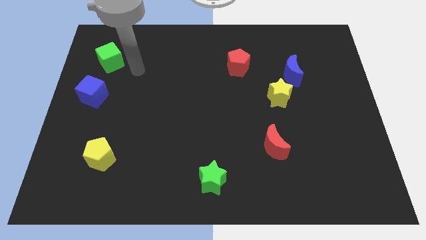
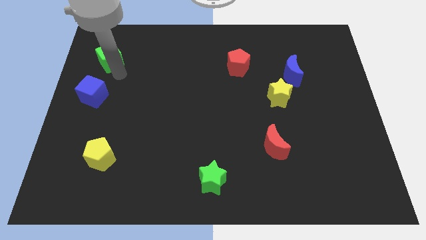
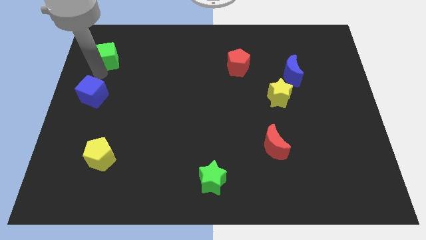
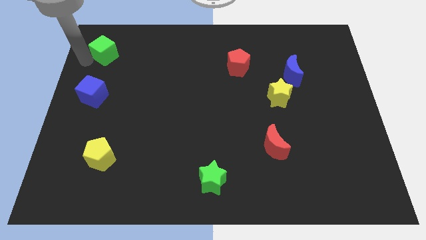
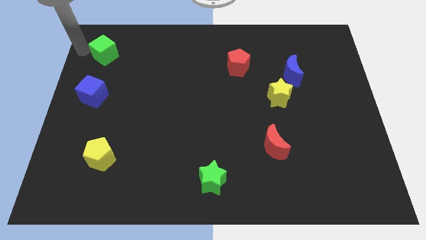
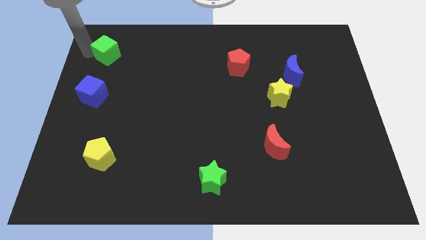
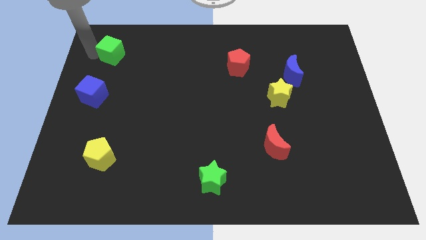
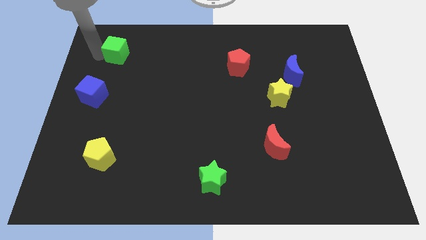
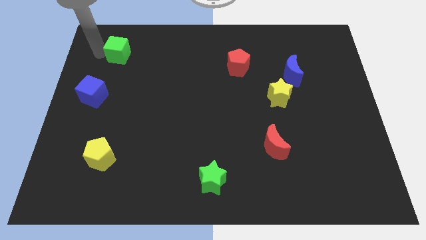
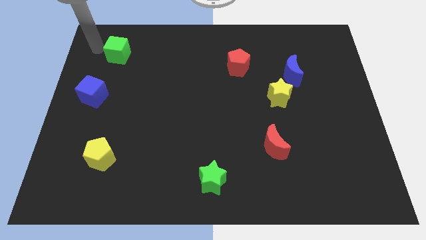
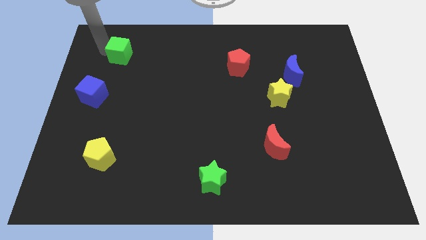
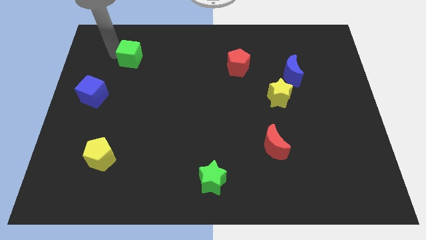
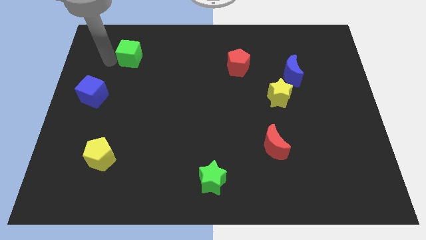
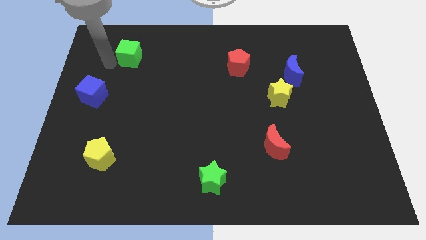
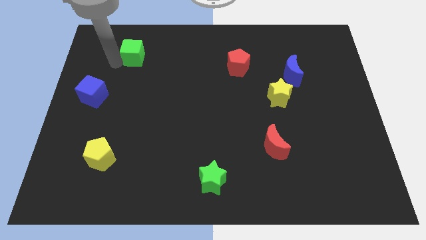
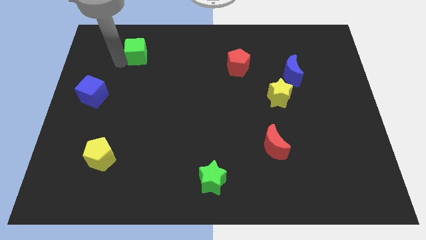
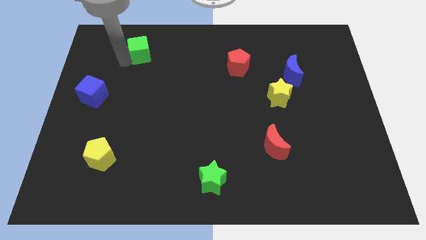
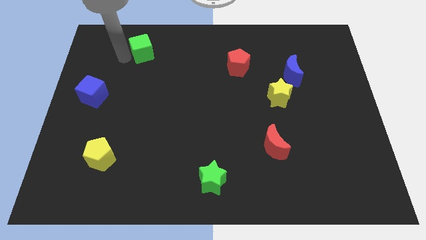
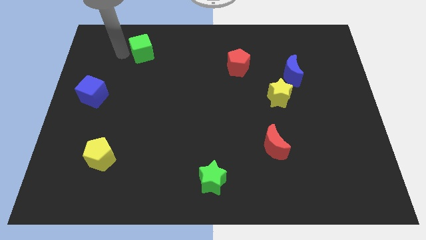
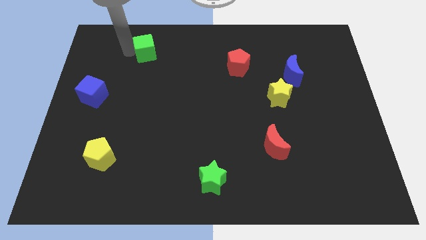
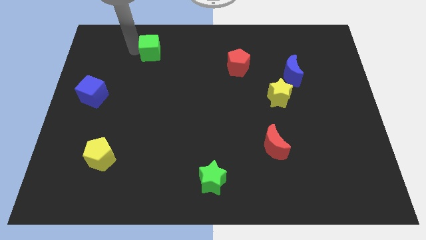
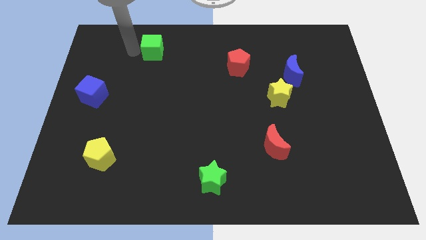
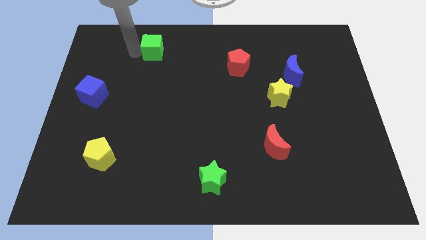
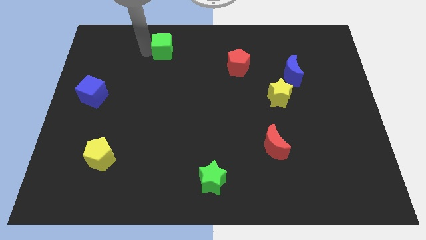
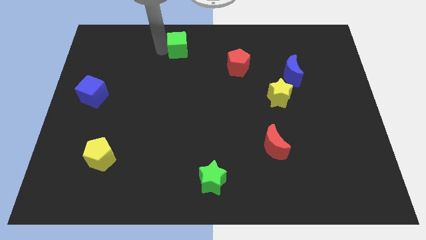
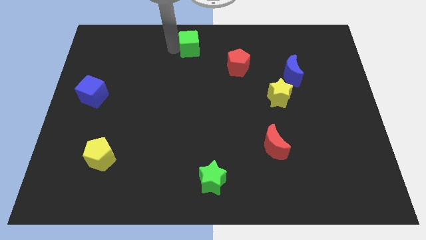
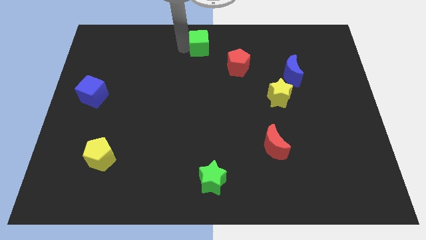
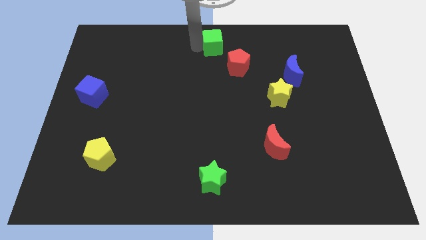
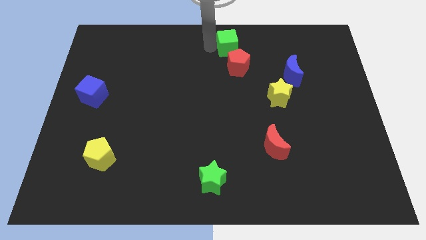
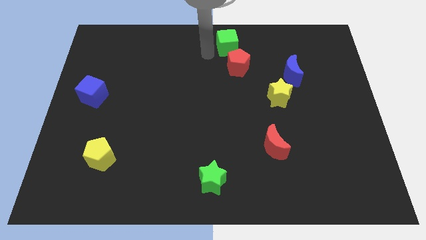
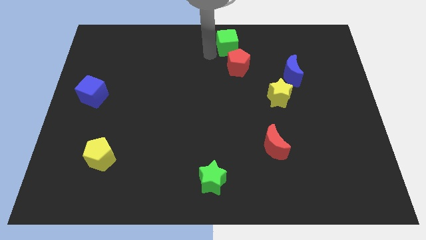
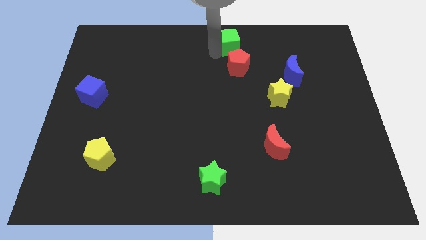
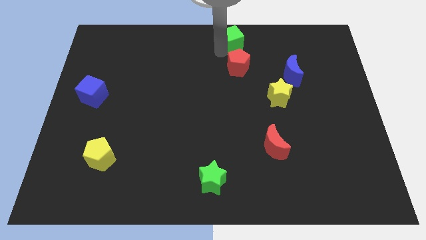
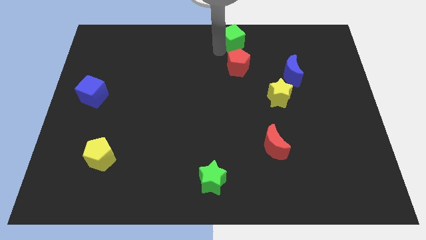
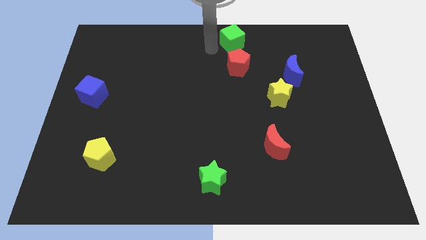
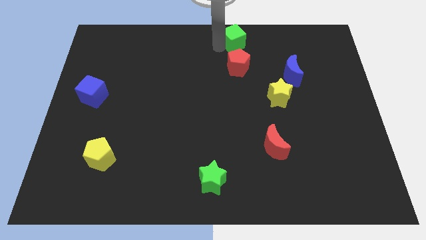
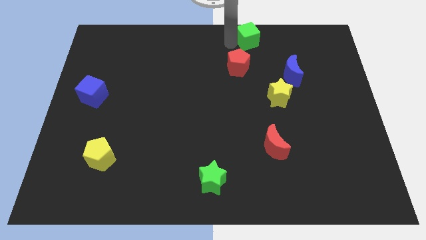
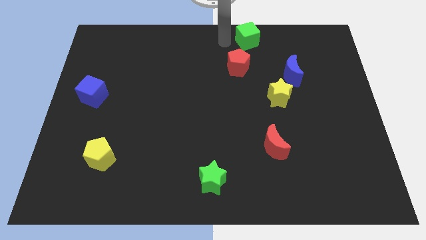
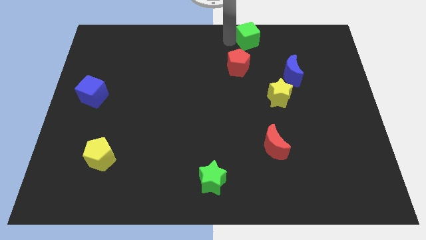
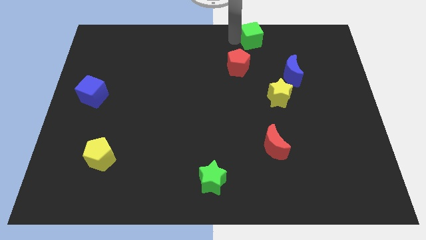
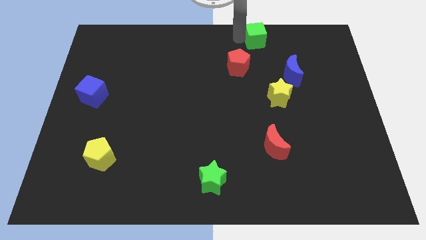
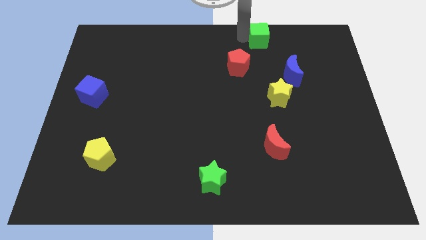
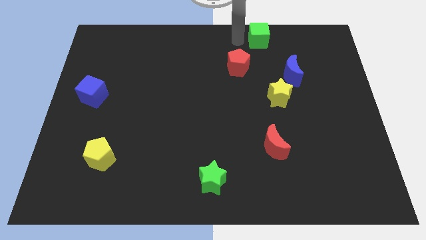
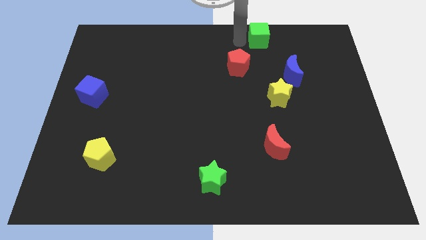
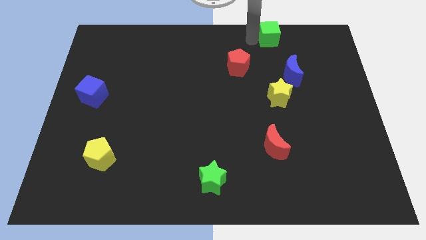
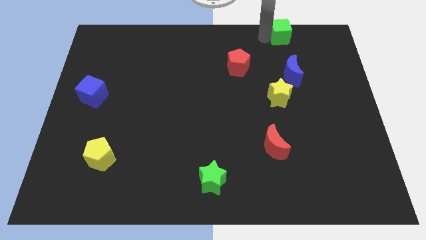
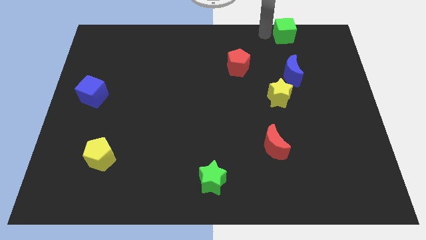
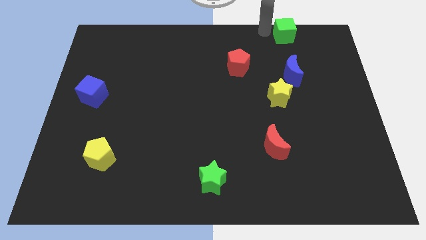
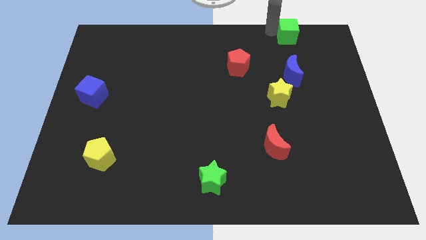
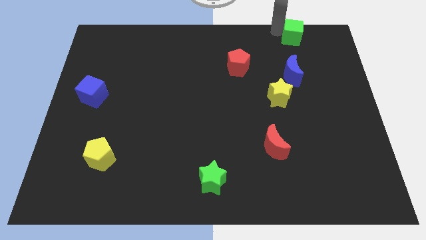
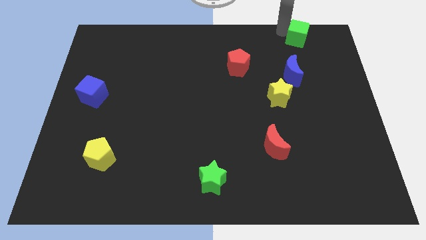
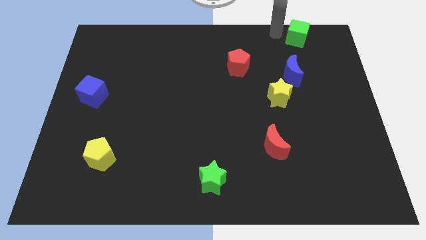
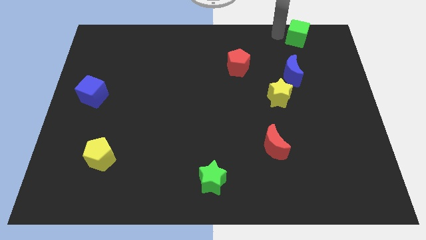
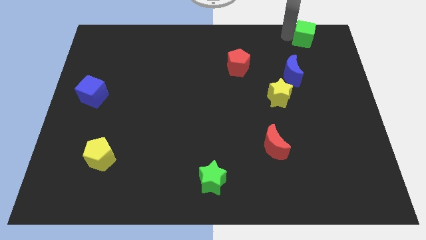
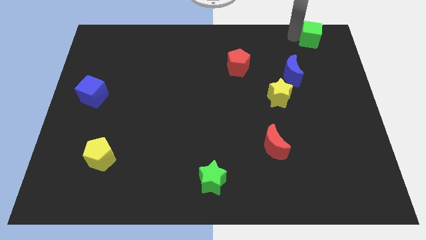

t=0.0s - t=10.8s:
push the green cube to the upper right corner

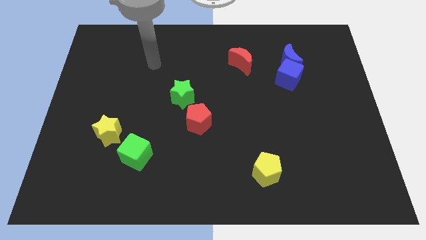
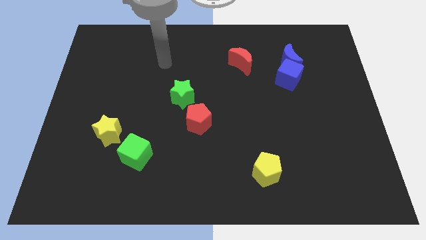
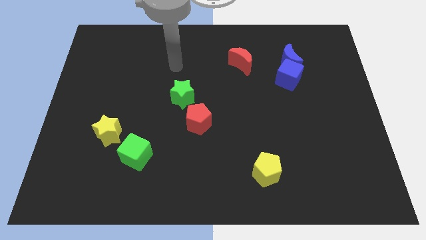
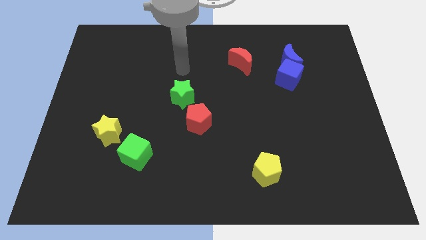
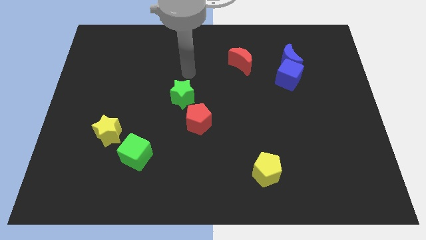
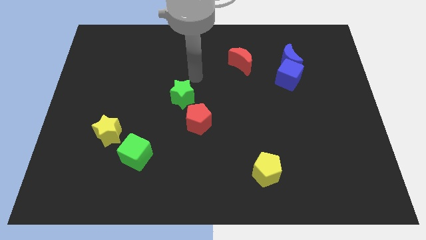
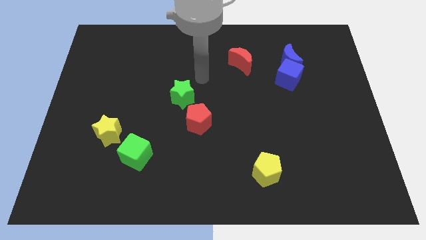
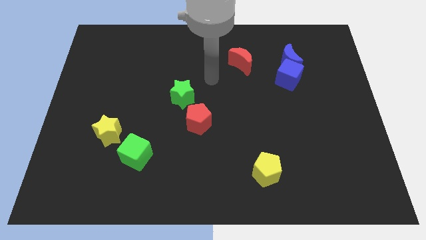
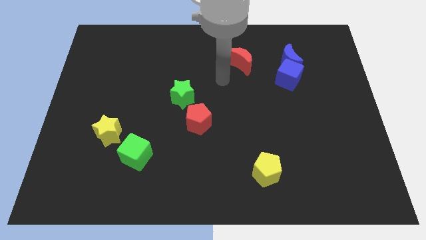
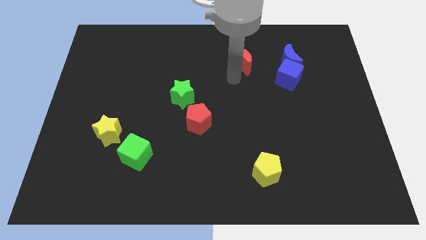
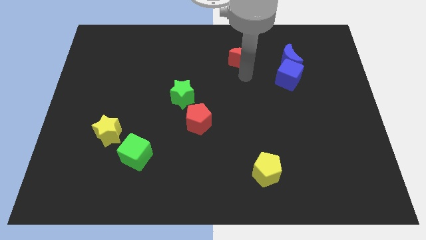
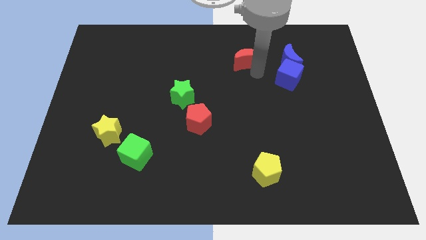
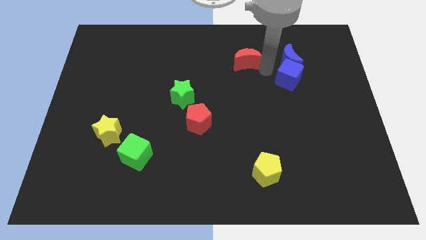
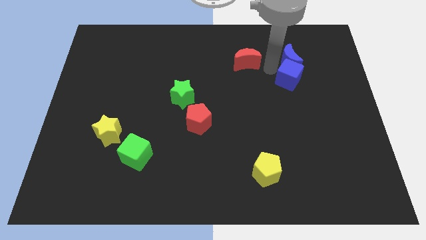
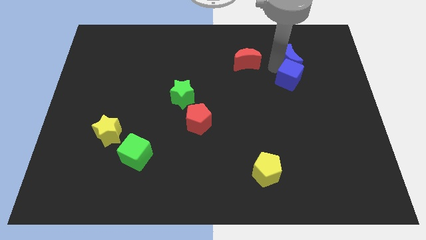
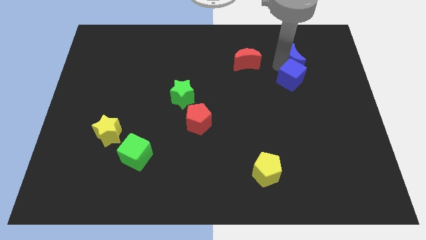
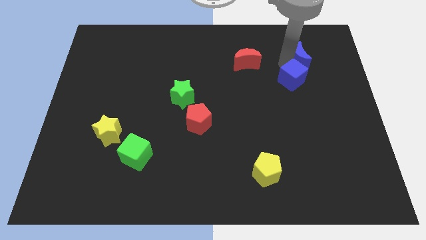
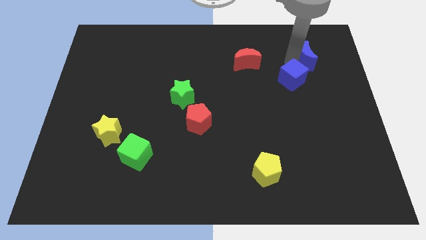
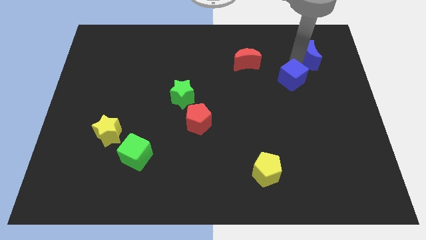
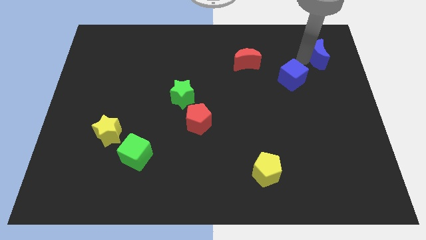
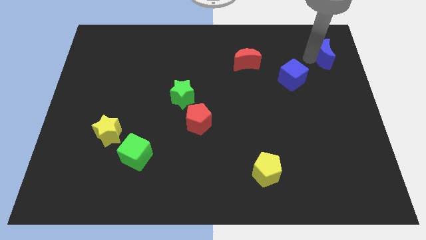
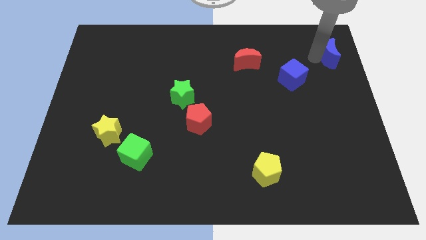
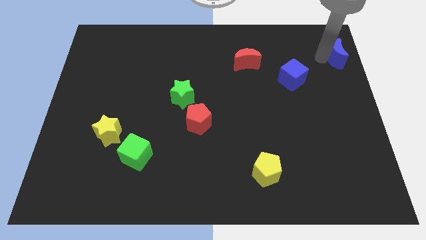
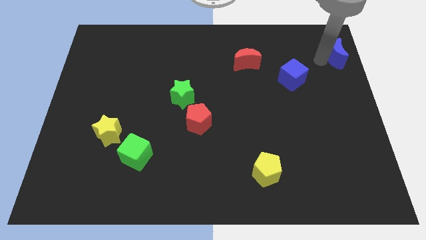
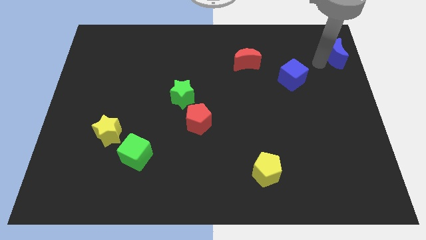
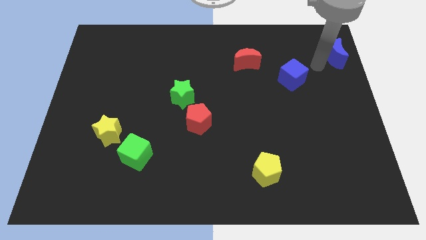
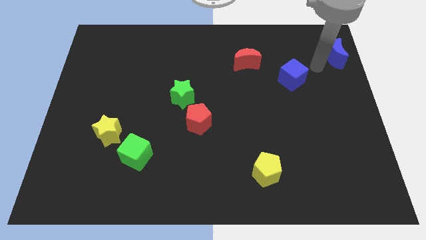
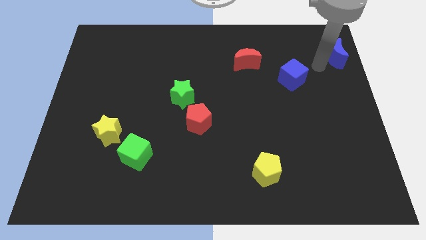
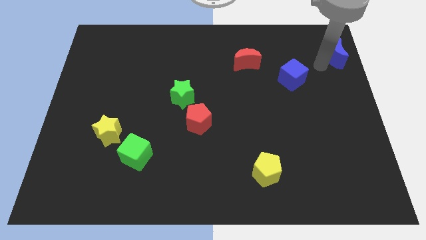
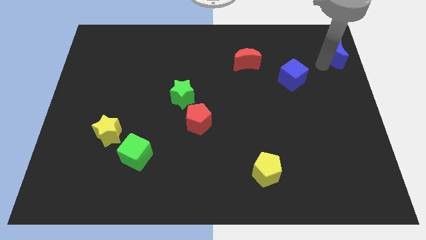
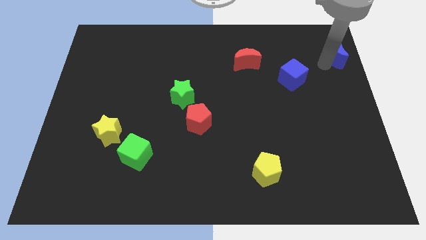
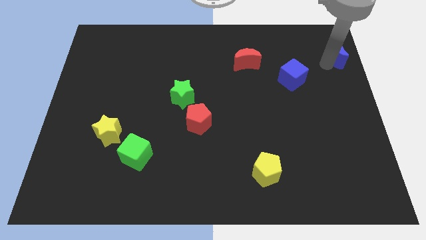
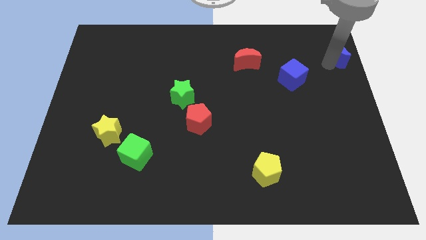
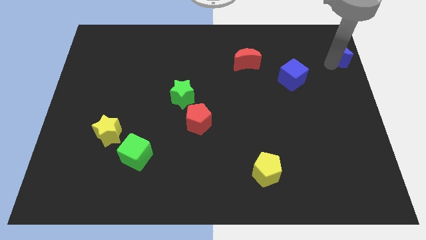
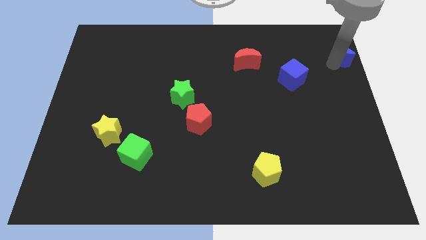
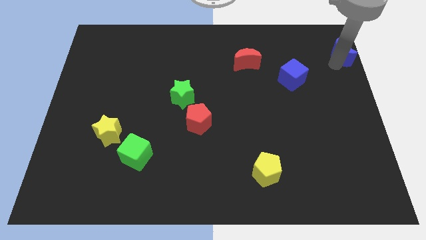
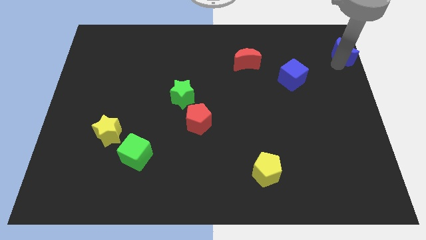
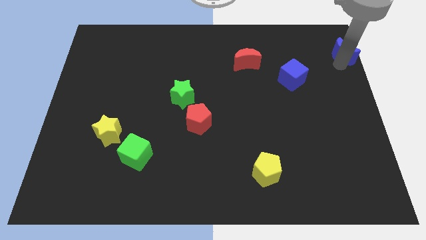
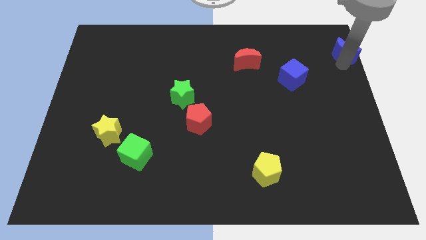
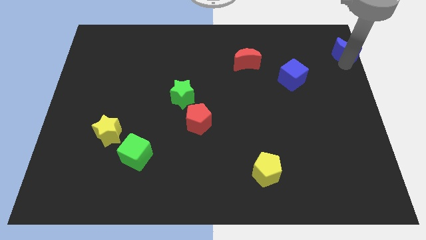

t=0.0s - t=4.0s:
move the blue moon to the top right corner
